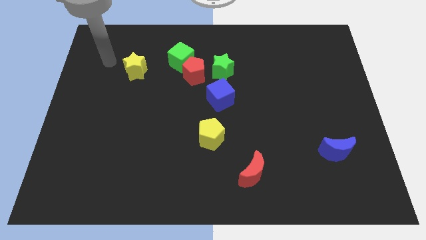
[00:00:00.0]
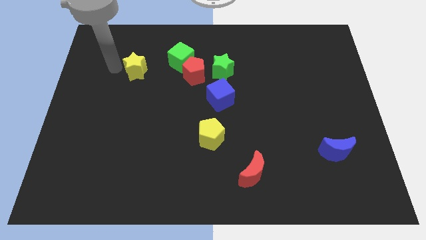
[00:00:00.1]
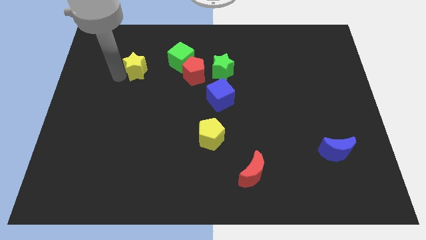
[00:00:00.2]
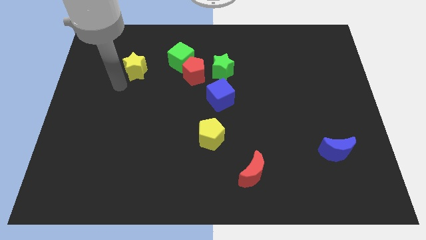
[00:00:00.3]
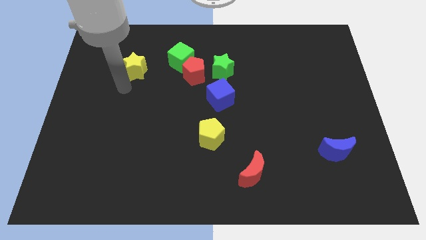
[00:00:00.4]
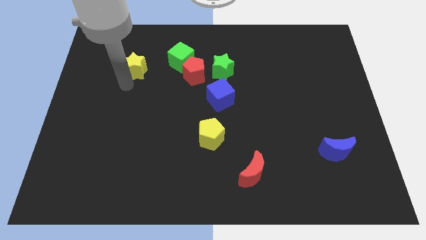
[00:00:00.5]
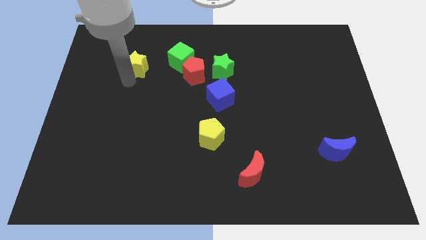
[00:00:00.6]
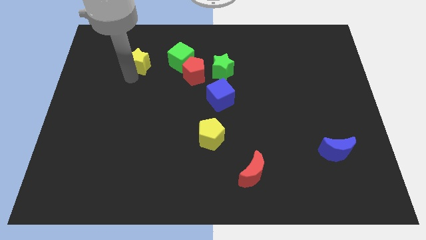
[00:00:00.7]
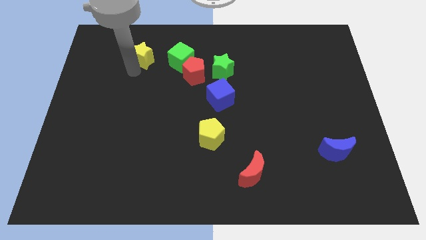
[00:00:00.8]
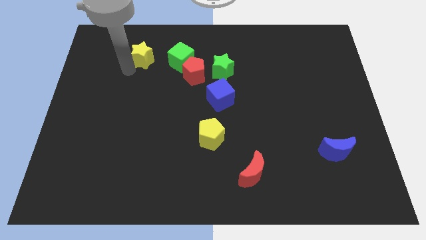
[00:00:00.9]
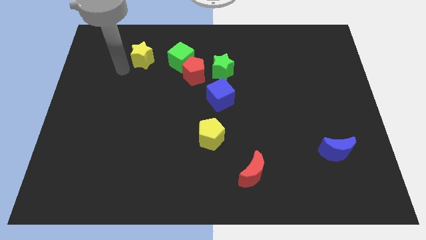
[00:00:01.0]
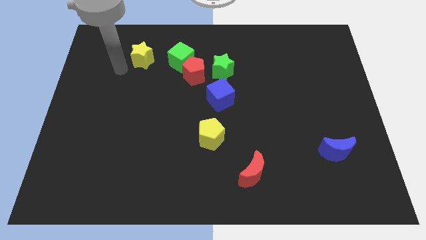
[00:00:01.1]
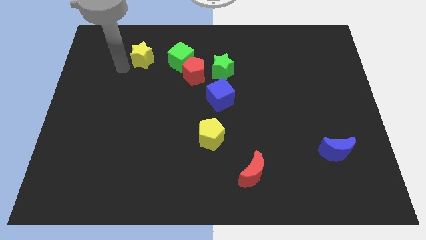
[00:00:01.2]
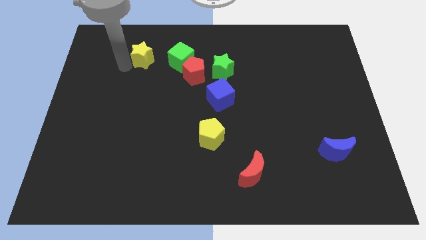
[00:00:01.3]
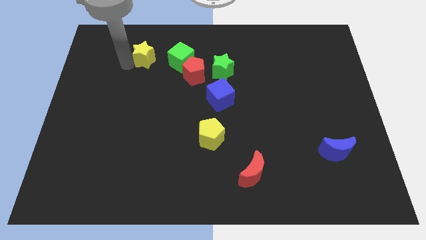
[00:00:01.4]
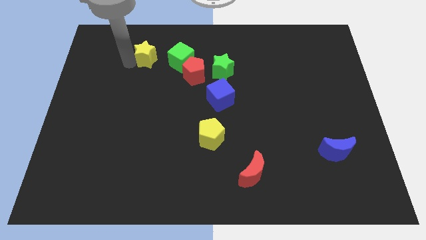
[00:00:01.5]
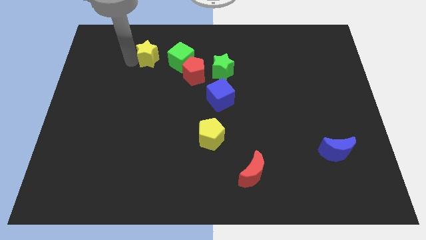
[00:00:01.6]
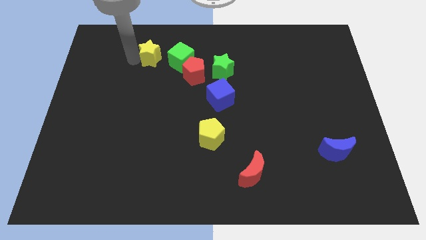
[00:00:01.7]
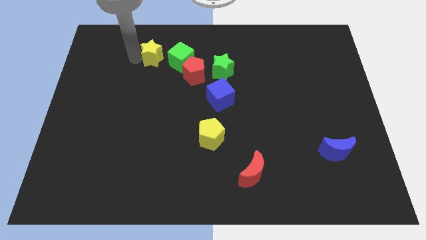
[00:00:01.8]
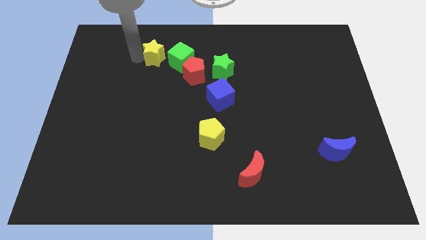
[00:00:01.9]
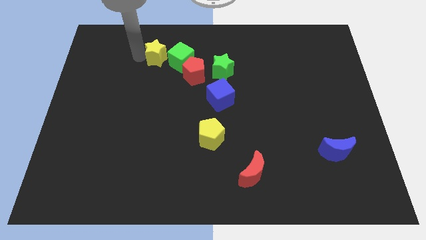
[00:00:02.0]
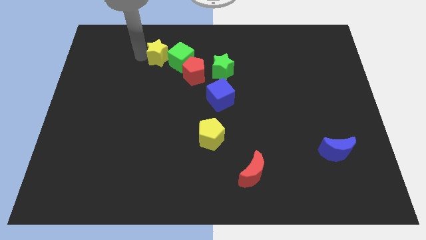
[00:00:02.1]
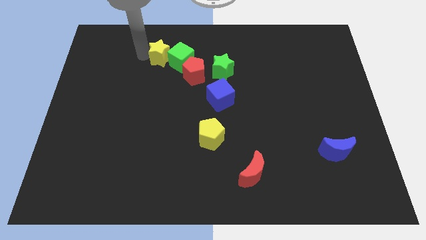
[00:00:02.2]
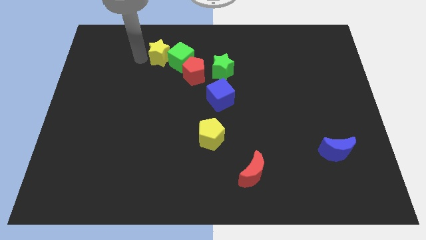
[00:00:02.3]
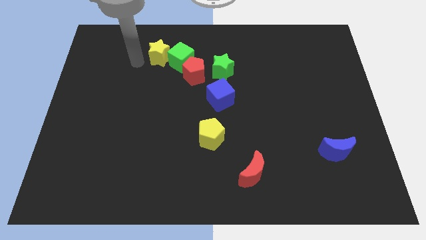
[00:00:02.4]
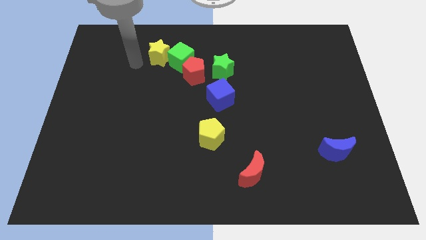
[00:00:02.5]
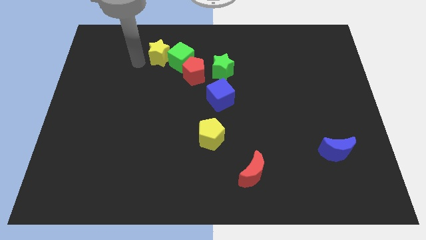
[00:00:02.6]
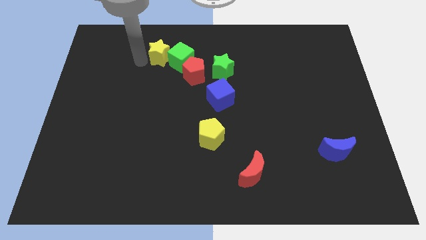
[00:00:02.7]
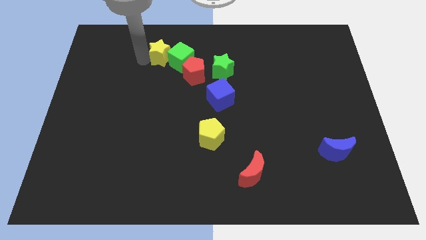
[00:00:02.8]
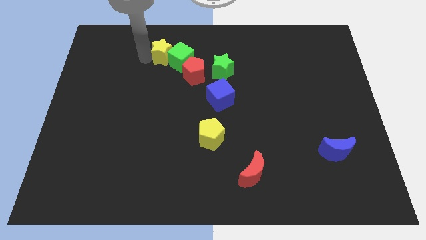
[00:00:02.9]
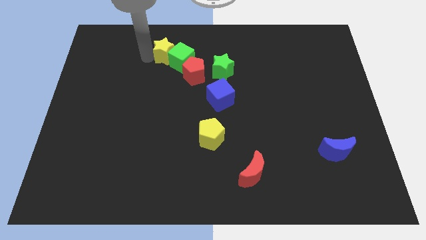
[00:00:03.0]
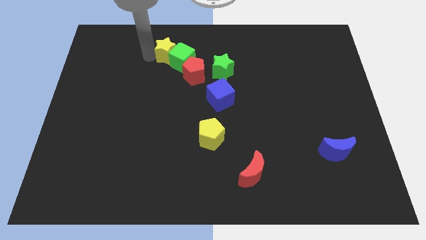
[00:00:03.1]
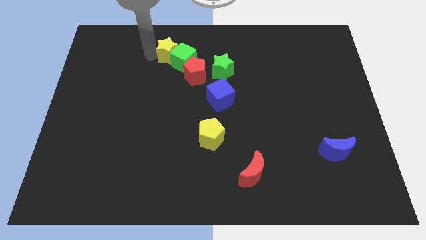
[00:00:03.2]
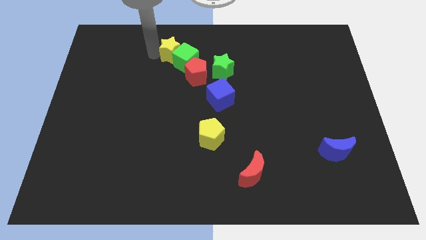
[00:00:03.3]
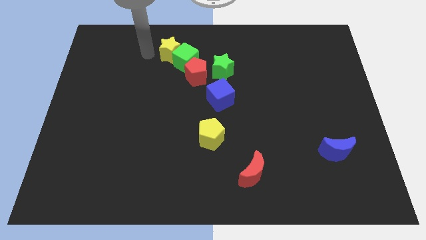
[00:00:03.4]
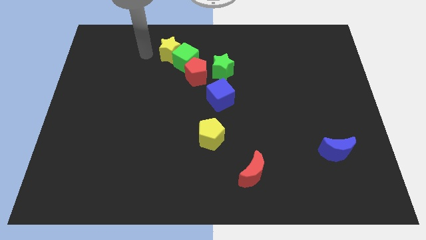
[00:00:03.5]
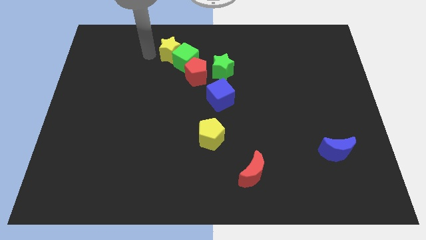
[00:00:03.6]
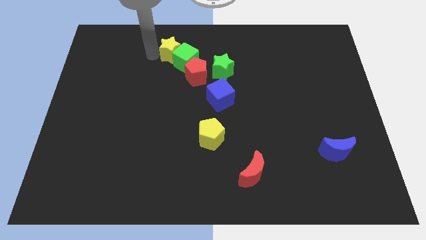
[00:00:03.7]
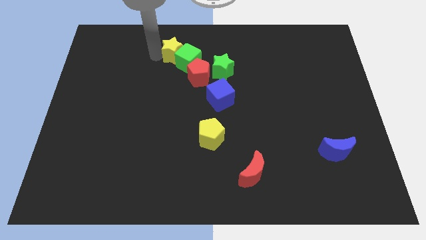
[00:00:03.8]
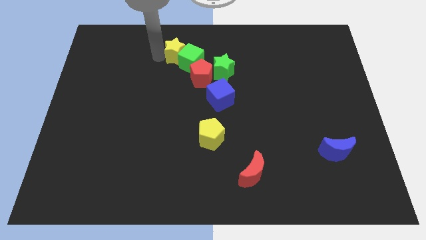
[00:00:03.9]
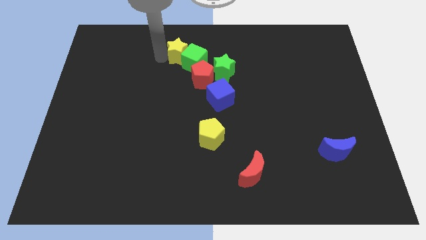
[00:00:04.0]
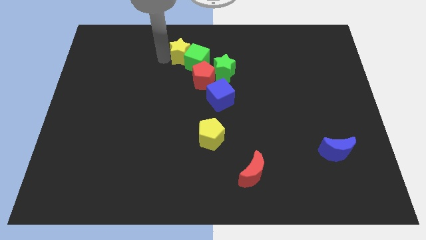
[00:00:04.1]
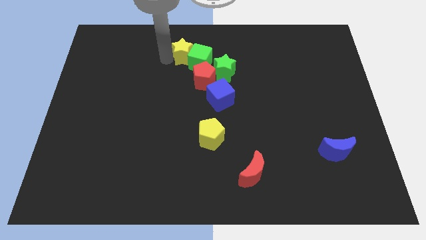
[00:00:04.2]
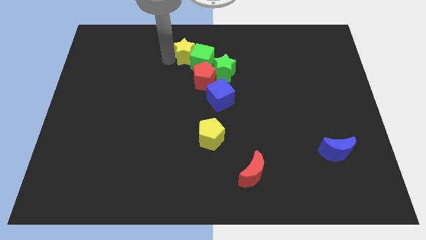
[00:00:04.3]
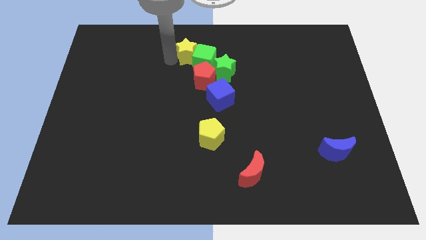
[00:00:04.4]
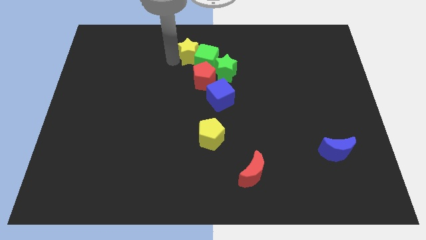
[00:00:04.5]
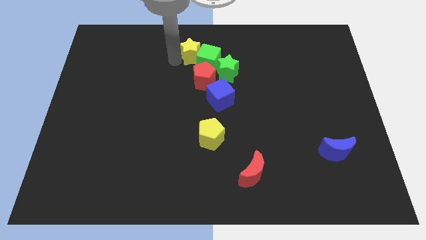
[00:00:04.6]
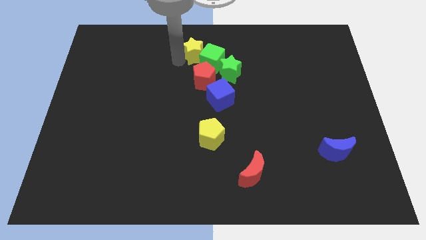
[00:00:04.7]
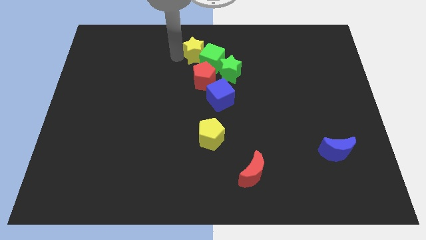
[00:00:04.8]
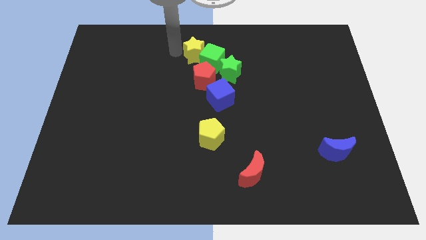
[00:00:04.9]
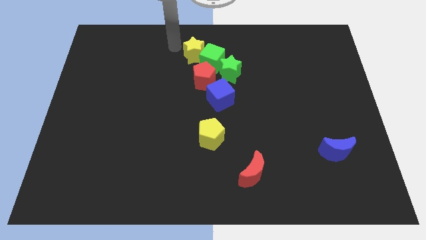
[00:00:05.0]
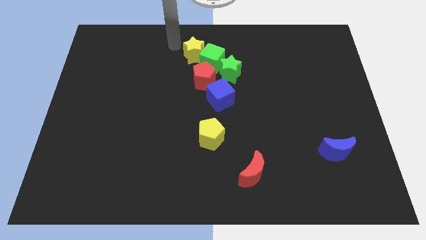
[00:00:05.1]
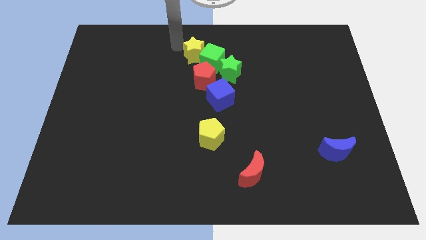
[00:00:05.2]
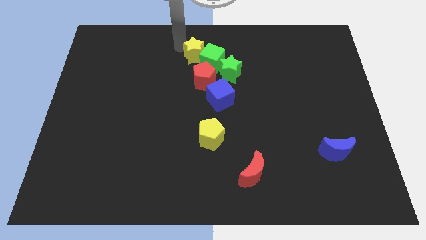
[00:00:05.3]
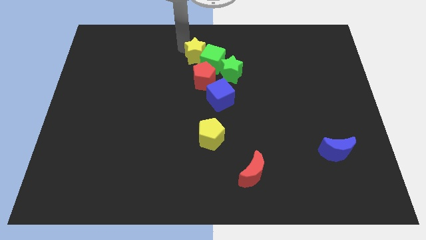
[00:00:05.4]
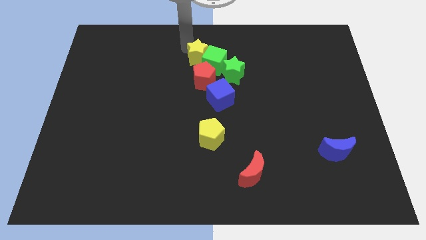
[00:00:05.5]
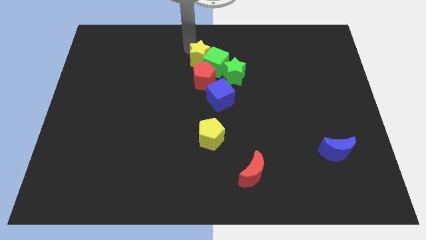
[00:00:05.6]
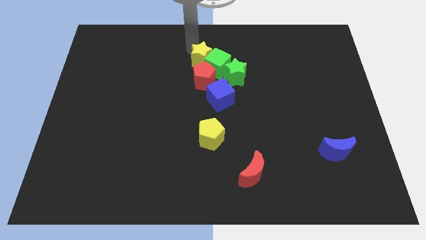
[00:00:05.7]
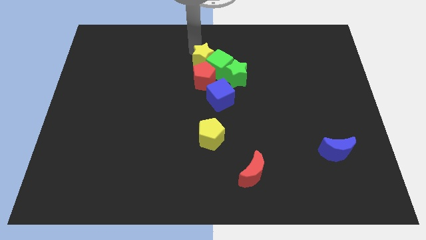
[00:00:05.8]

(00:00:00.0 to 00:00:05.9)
put the yellow star above the blue cube
